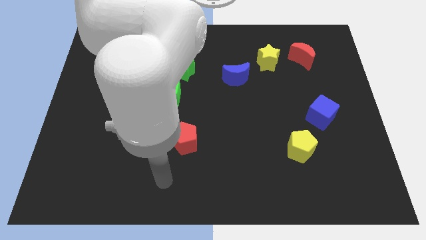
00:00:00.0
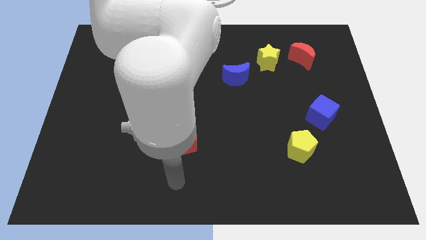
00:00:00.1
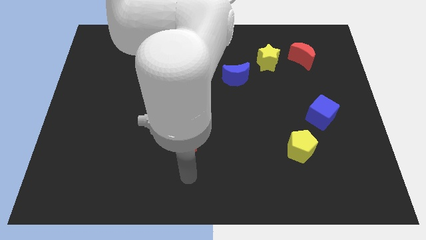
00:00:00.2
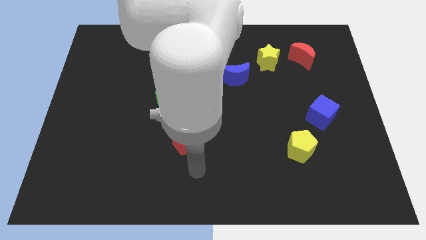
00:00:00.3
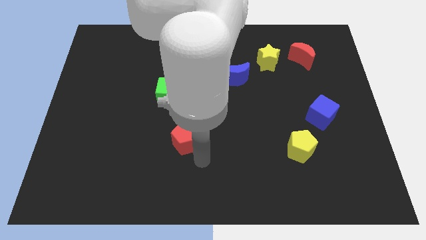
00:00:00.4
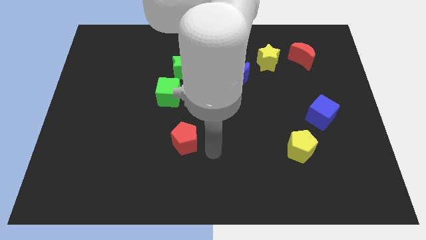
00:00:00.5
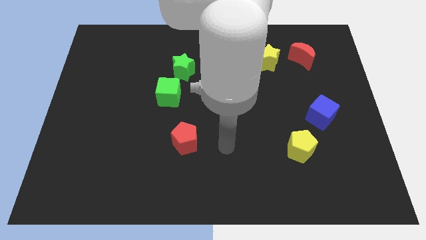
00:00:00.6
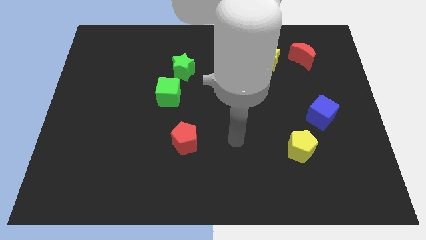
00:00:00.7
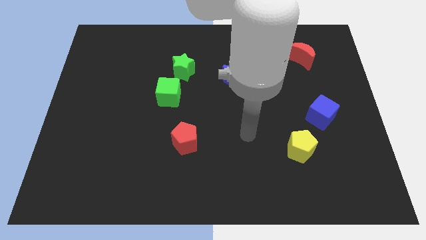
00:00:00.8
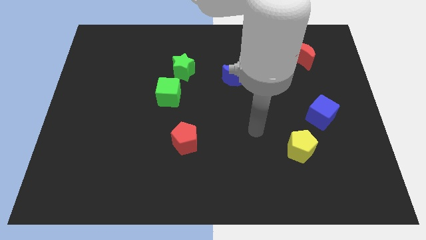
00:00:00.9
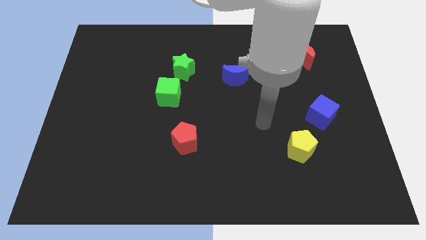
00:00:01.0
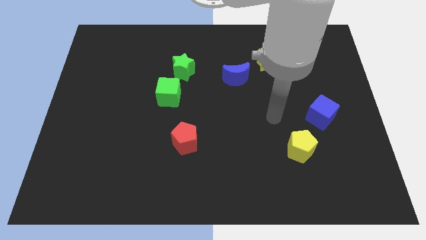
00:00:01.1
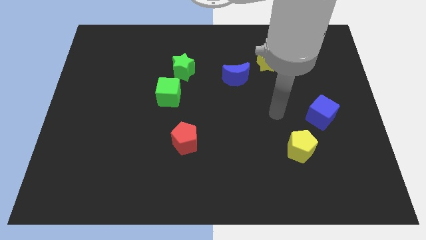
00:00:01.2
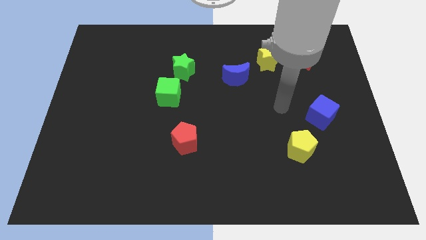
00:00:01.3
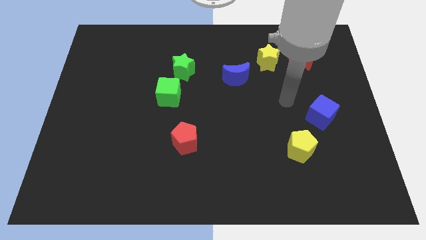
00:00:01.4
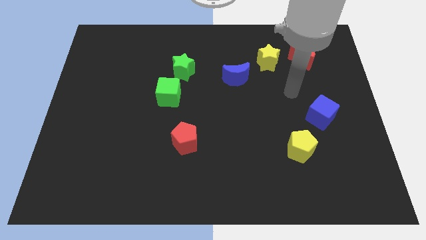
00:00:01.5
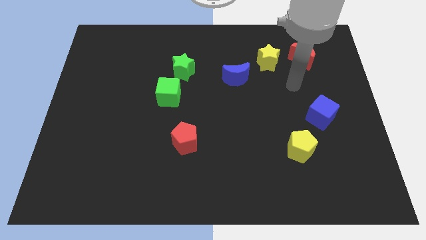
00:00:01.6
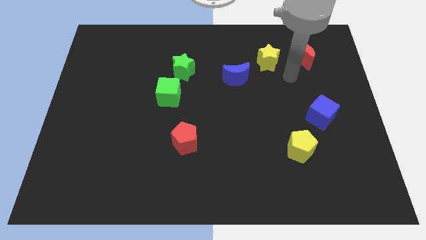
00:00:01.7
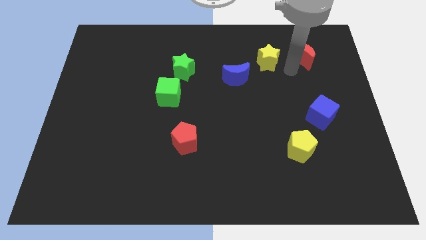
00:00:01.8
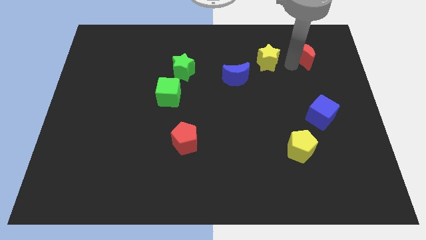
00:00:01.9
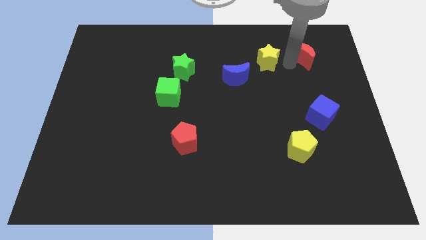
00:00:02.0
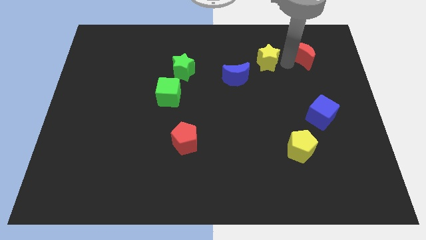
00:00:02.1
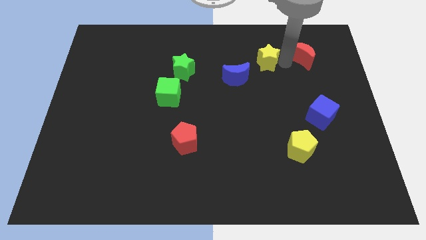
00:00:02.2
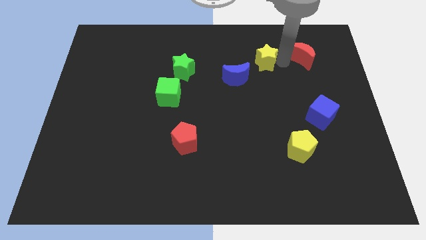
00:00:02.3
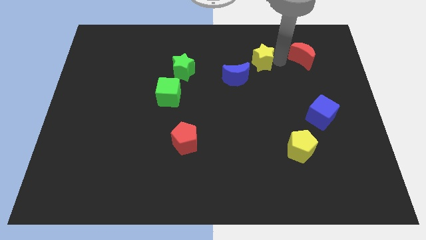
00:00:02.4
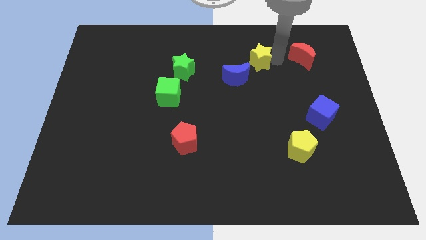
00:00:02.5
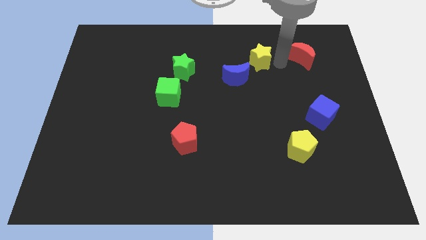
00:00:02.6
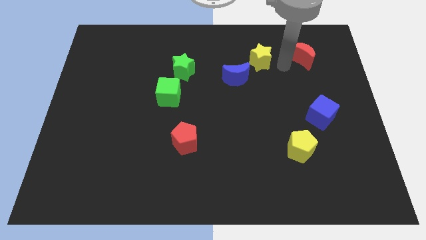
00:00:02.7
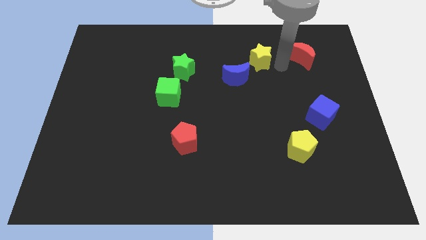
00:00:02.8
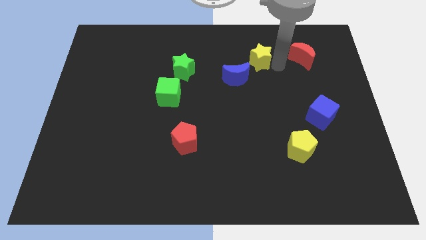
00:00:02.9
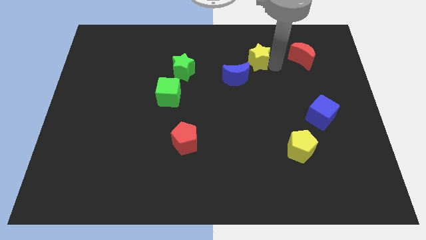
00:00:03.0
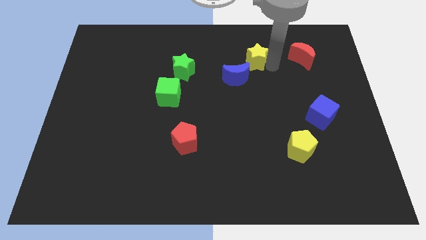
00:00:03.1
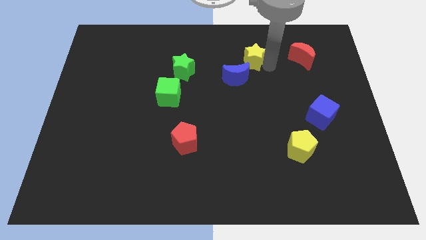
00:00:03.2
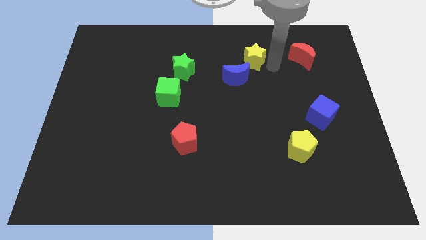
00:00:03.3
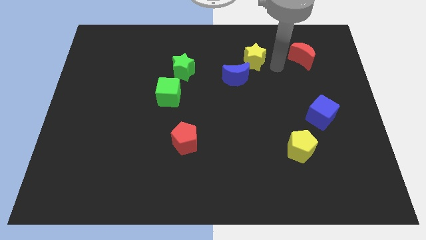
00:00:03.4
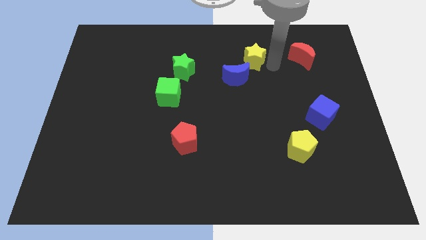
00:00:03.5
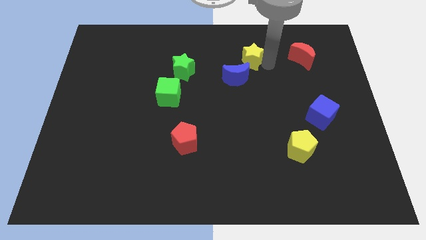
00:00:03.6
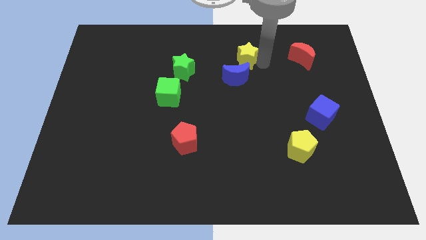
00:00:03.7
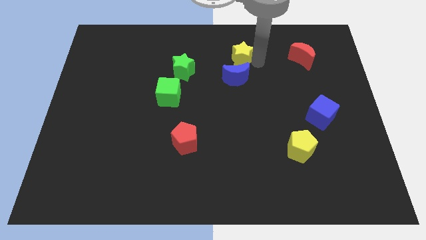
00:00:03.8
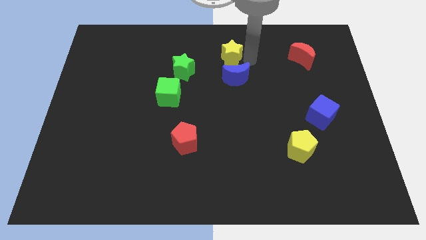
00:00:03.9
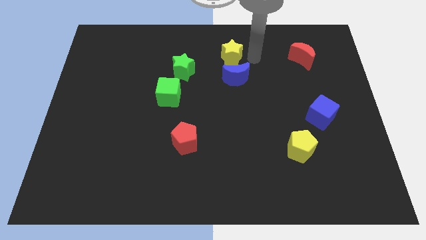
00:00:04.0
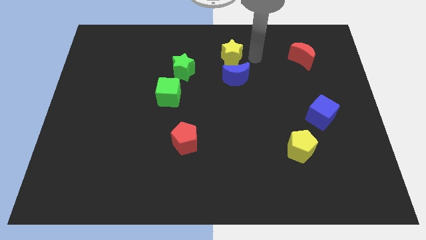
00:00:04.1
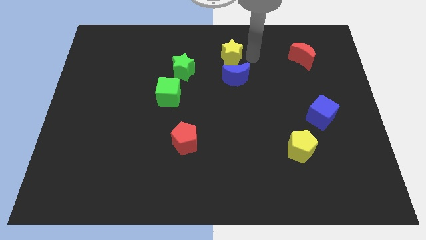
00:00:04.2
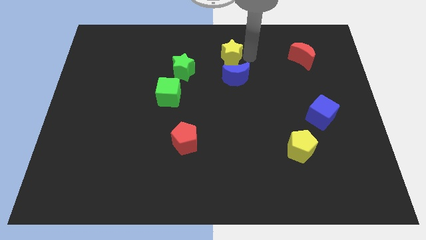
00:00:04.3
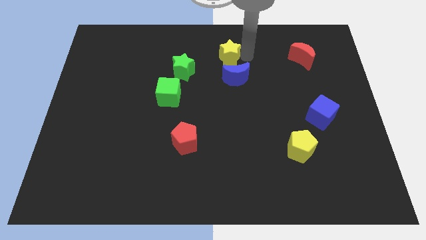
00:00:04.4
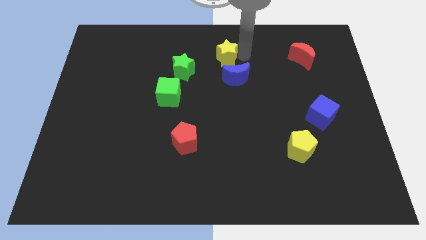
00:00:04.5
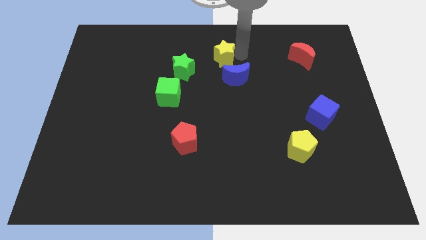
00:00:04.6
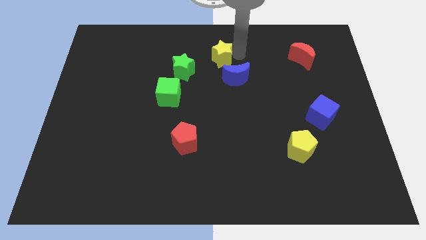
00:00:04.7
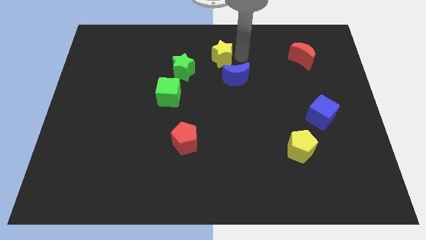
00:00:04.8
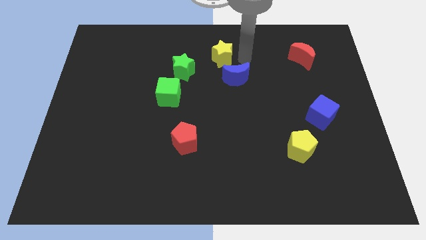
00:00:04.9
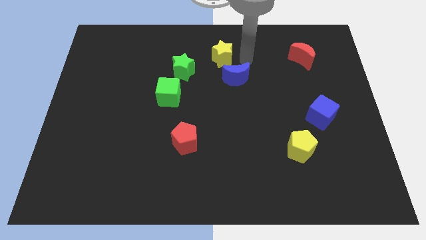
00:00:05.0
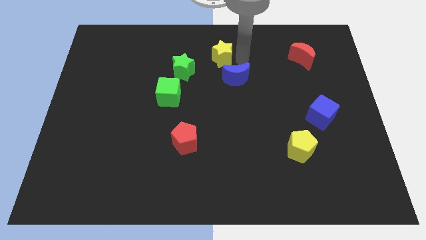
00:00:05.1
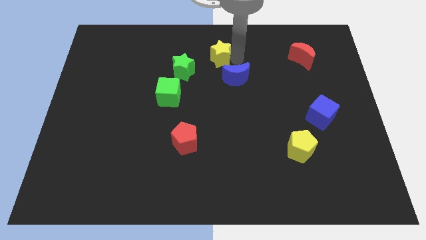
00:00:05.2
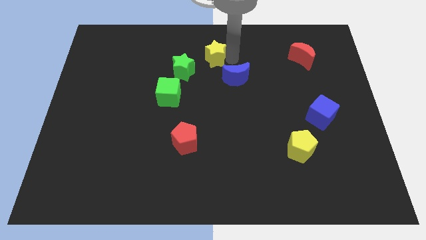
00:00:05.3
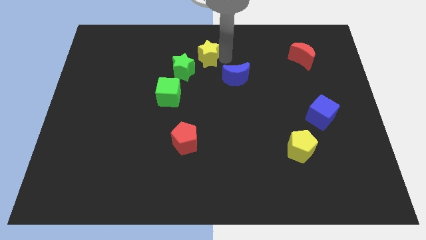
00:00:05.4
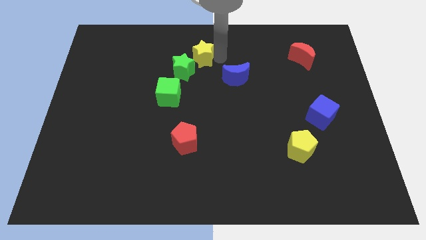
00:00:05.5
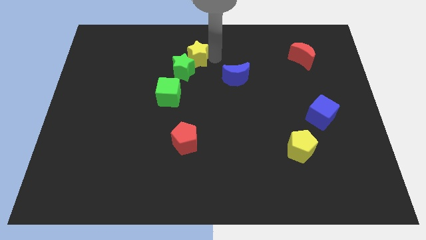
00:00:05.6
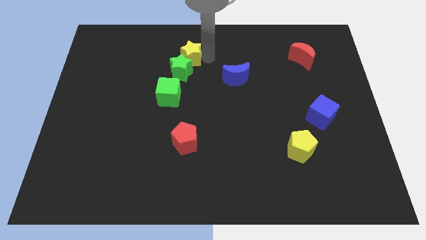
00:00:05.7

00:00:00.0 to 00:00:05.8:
push the yellow star to the left

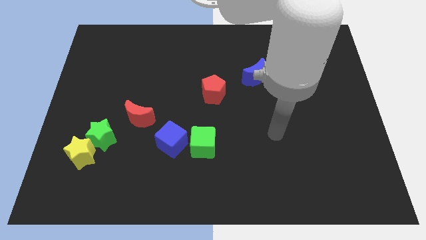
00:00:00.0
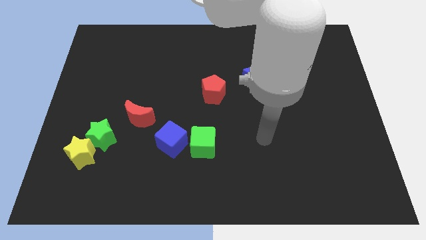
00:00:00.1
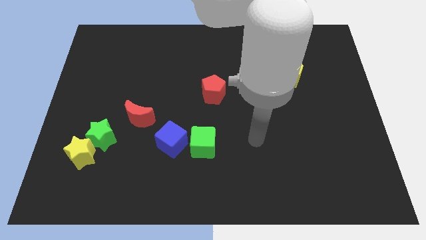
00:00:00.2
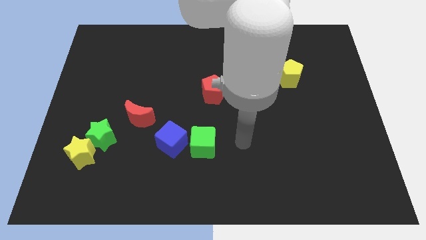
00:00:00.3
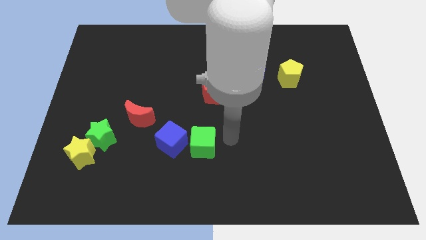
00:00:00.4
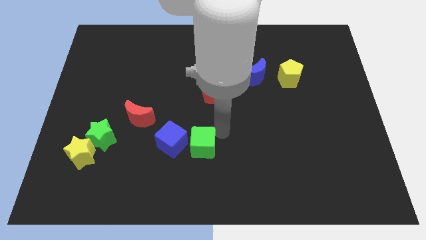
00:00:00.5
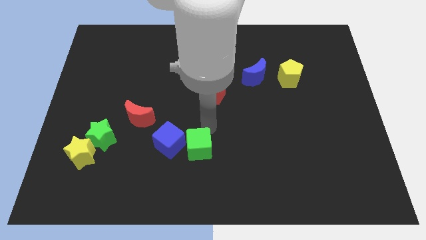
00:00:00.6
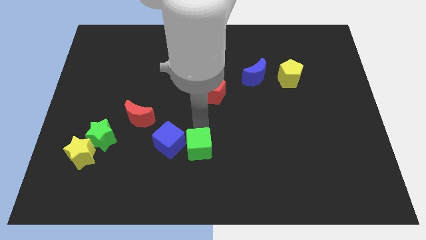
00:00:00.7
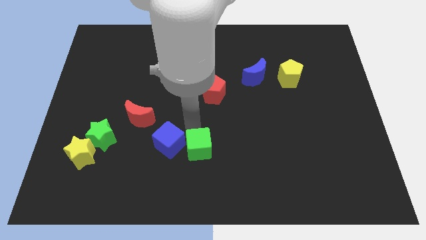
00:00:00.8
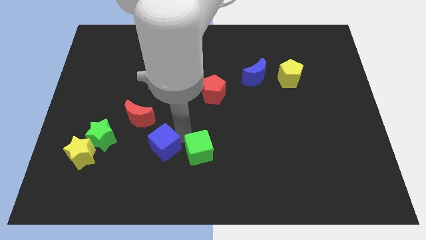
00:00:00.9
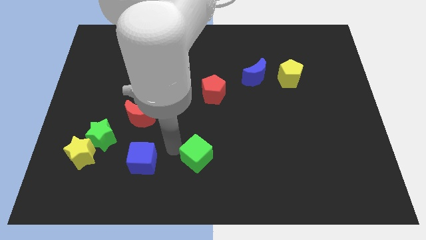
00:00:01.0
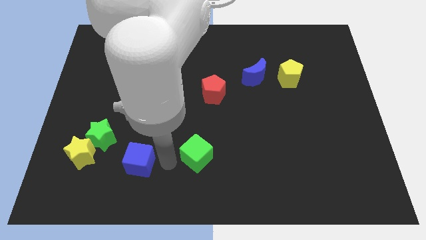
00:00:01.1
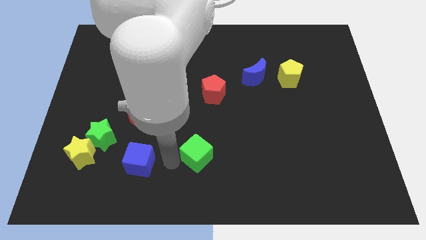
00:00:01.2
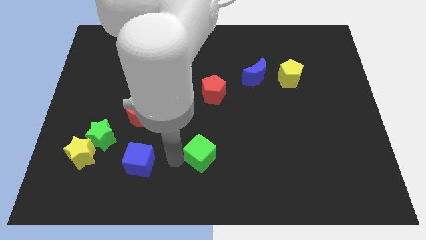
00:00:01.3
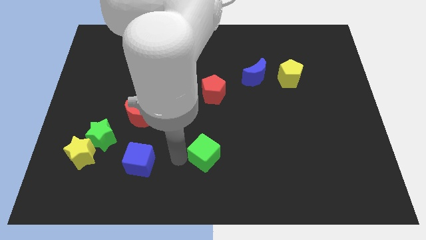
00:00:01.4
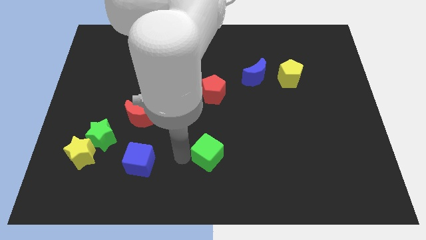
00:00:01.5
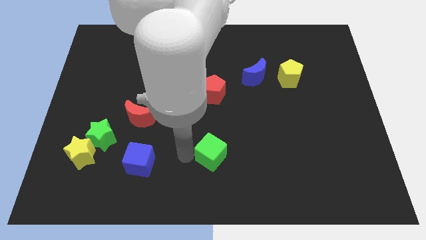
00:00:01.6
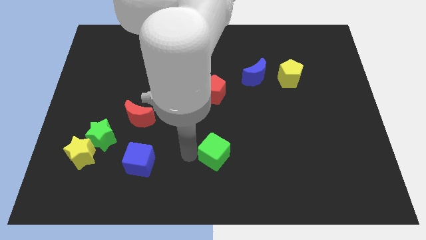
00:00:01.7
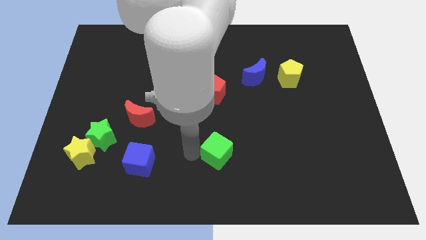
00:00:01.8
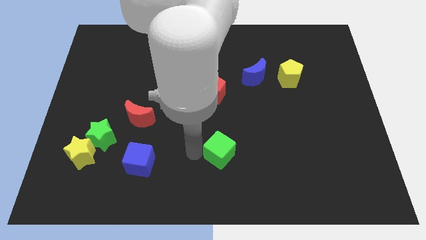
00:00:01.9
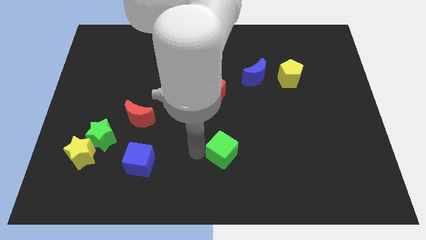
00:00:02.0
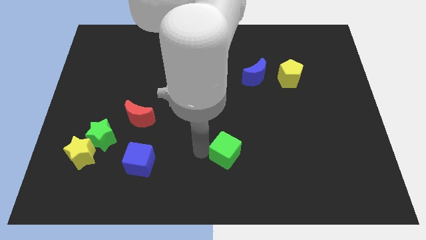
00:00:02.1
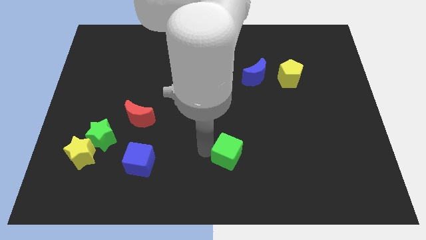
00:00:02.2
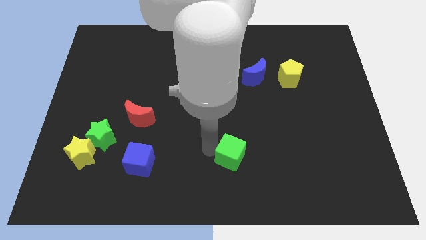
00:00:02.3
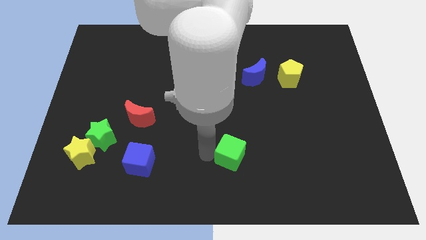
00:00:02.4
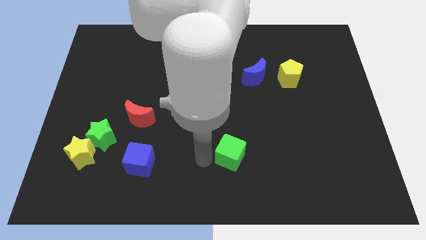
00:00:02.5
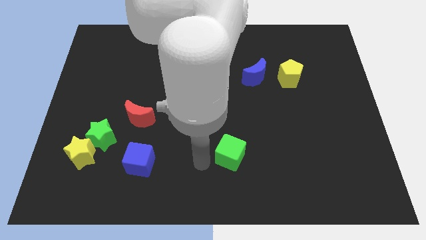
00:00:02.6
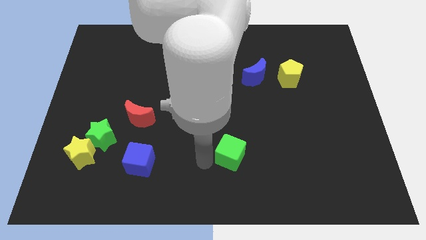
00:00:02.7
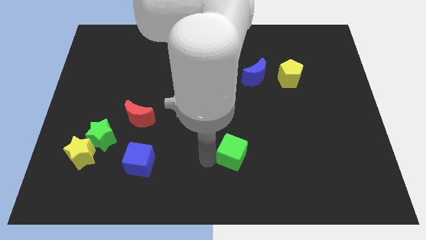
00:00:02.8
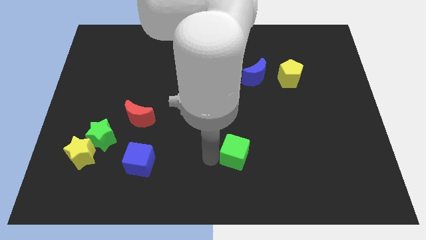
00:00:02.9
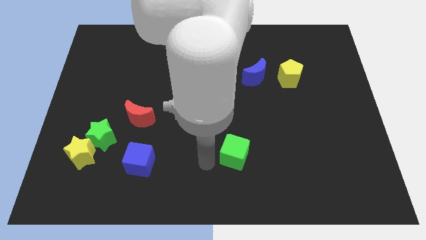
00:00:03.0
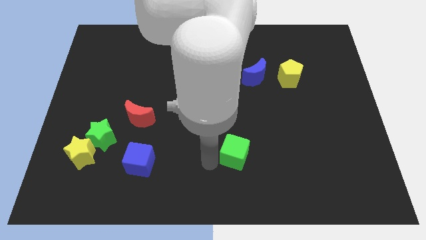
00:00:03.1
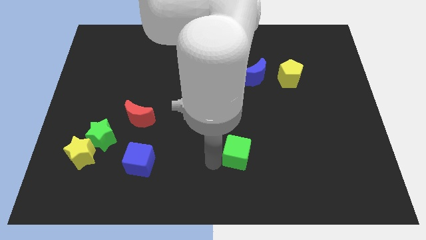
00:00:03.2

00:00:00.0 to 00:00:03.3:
slightly slide the green cube to the right
